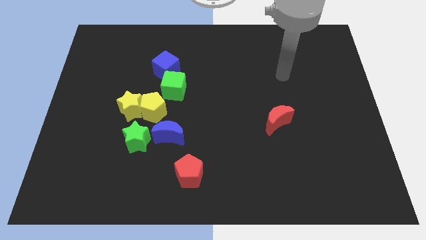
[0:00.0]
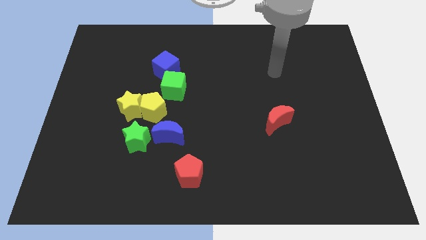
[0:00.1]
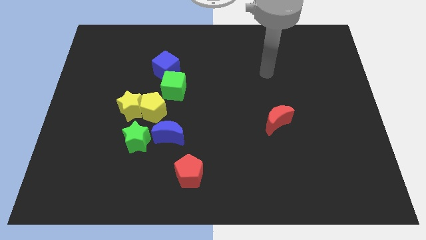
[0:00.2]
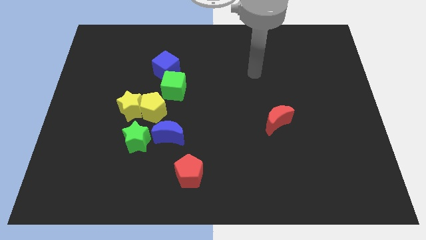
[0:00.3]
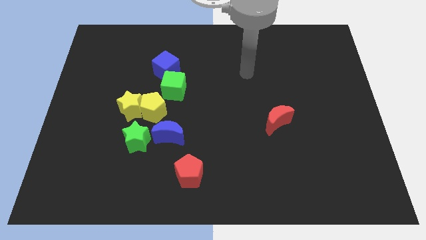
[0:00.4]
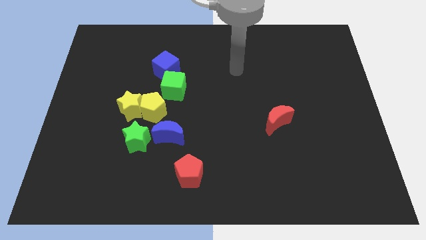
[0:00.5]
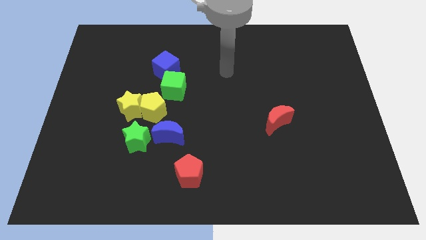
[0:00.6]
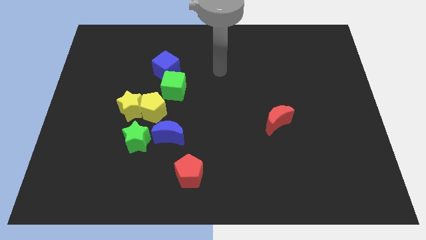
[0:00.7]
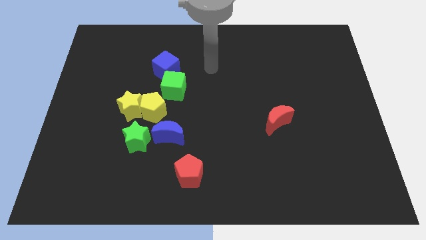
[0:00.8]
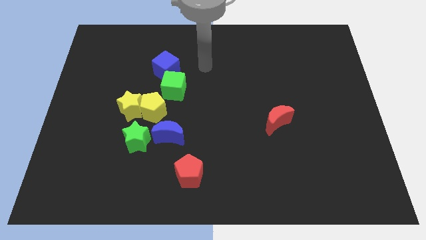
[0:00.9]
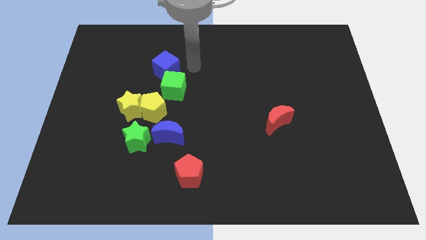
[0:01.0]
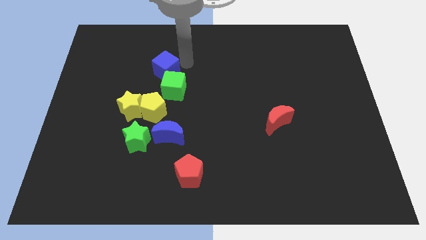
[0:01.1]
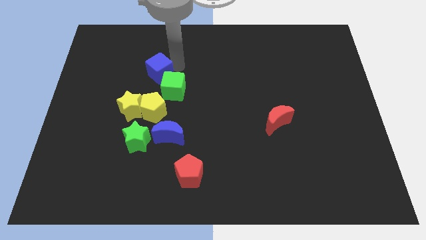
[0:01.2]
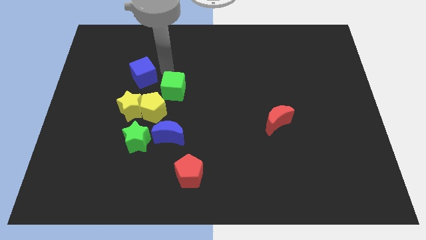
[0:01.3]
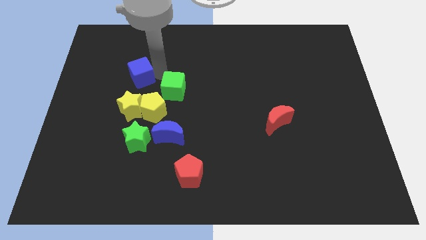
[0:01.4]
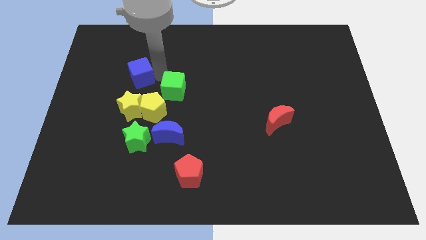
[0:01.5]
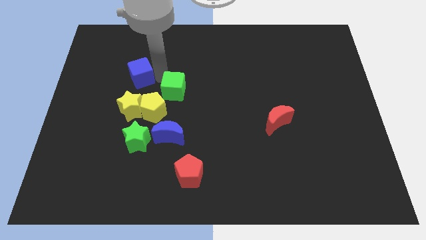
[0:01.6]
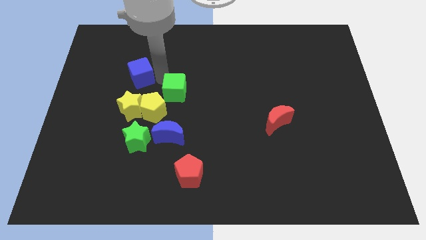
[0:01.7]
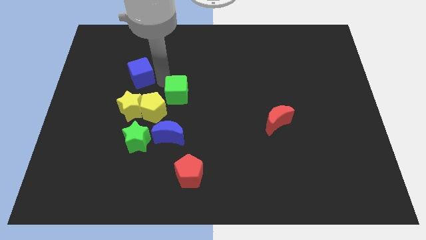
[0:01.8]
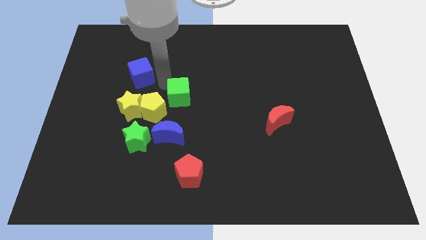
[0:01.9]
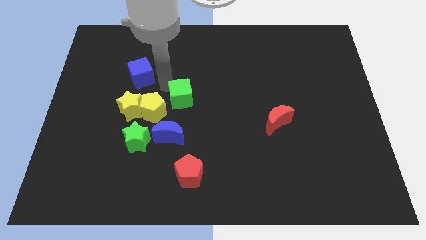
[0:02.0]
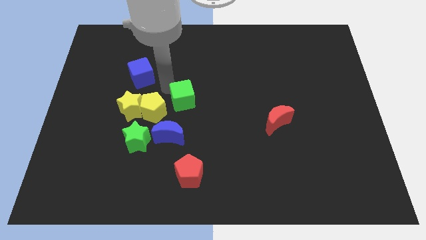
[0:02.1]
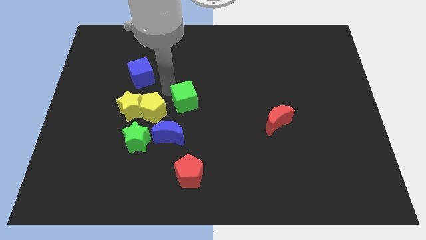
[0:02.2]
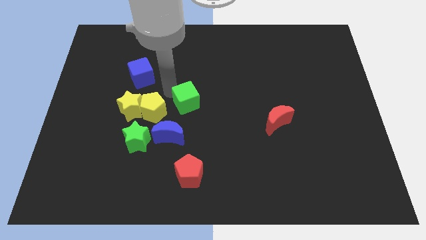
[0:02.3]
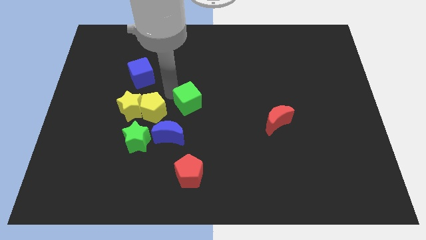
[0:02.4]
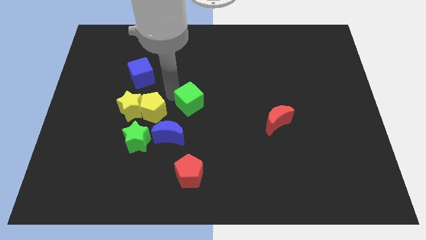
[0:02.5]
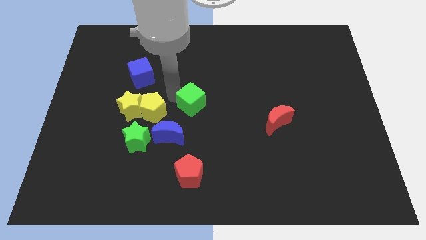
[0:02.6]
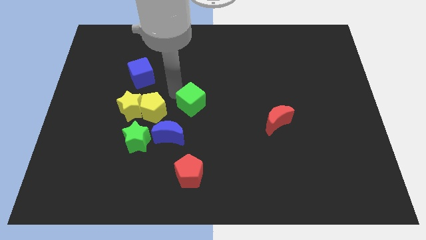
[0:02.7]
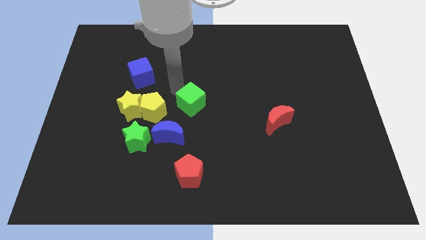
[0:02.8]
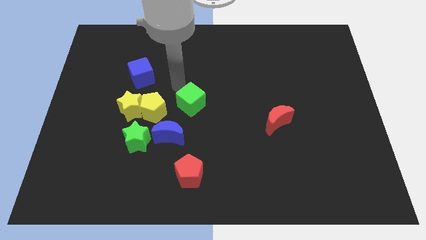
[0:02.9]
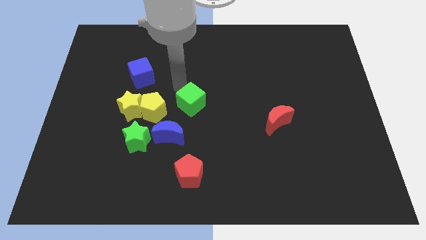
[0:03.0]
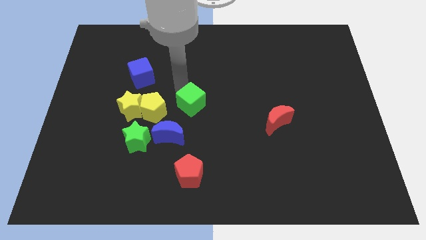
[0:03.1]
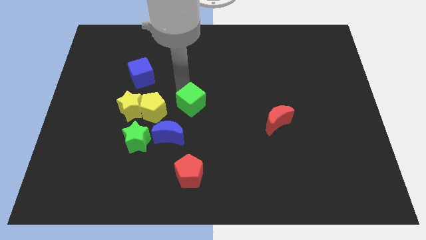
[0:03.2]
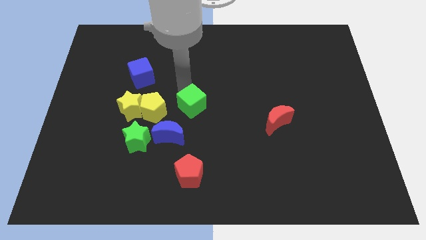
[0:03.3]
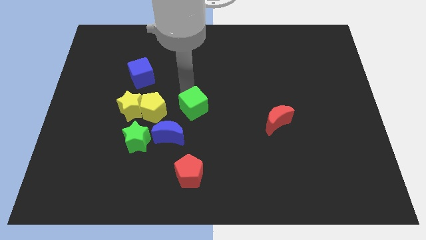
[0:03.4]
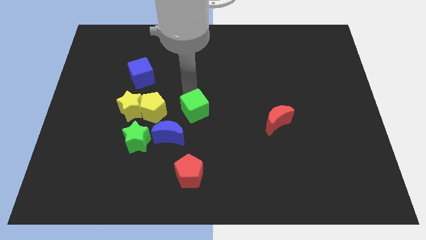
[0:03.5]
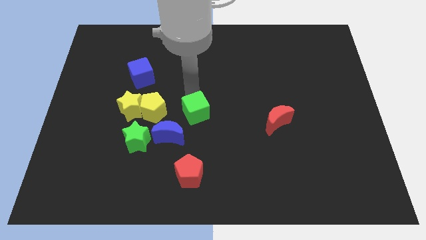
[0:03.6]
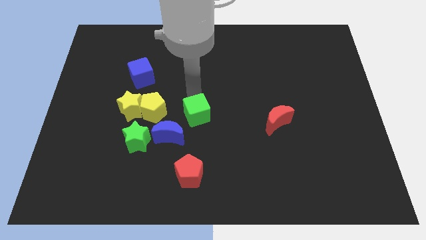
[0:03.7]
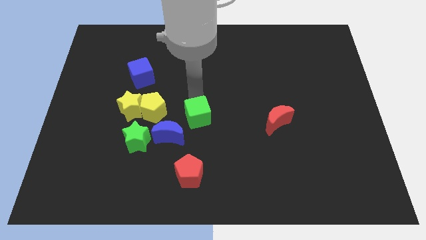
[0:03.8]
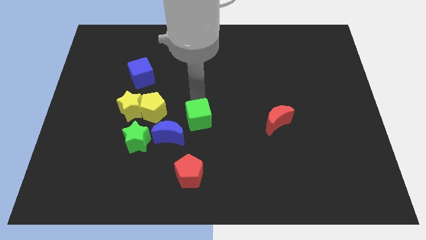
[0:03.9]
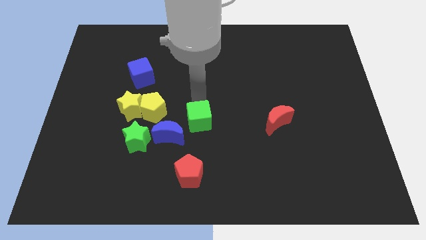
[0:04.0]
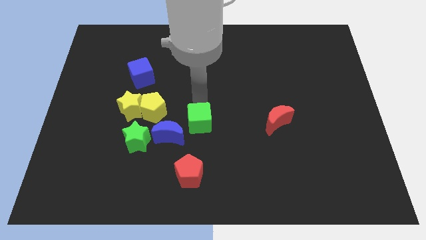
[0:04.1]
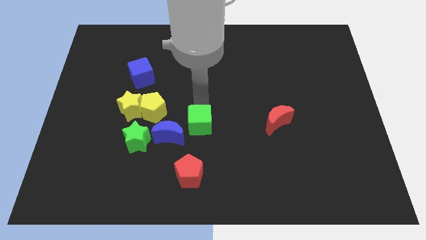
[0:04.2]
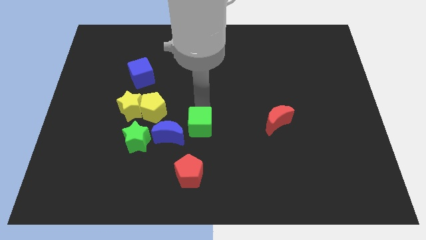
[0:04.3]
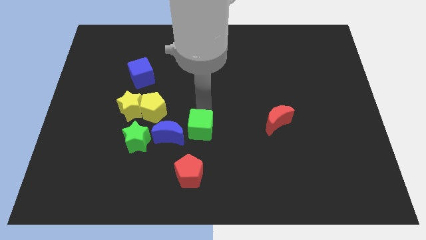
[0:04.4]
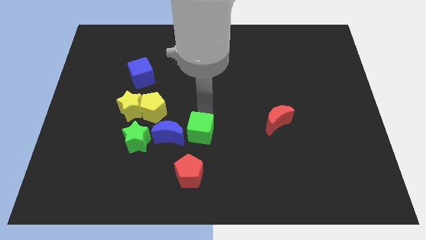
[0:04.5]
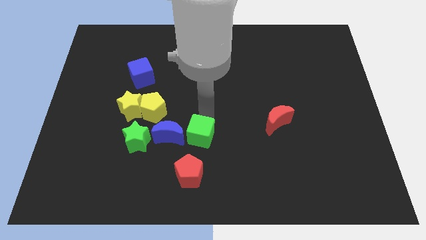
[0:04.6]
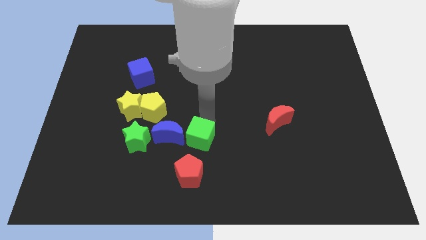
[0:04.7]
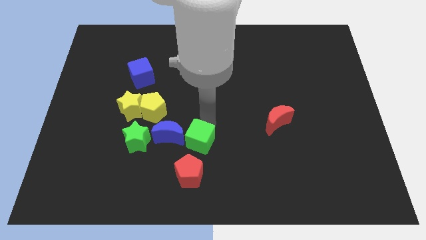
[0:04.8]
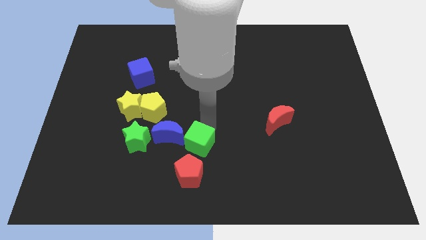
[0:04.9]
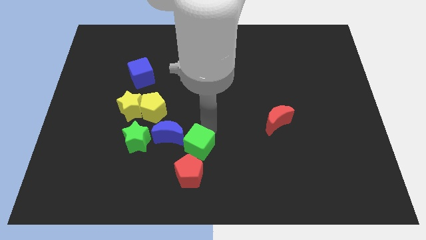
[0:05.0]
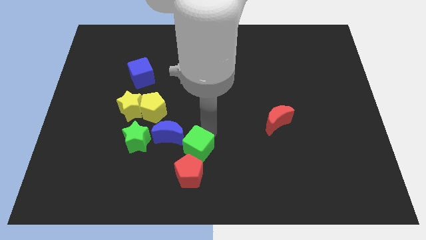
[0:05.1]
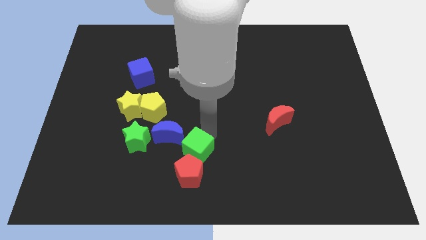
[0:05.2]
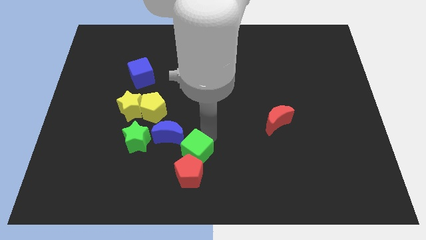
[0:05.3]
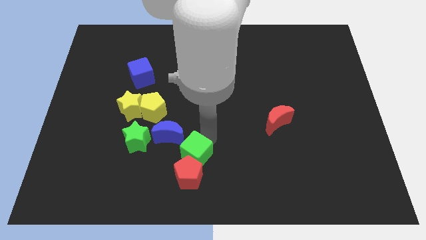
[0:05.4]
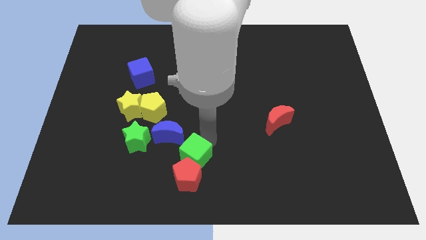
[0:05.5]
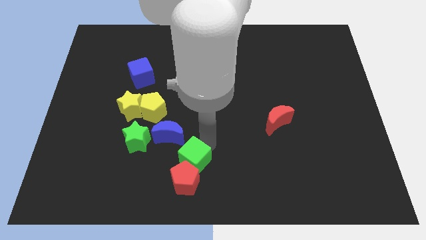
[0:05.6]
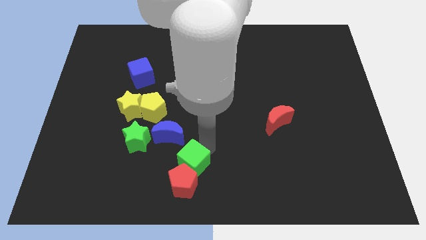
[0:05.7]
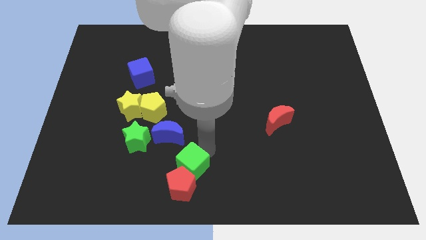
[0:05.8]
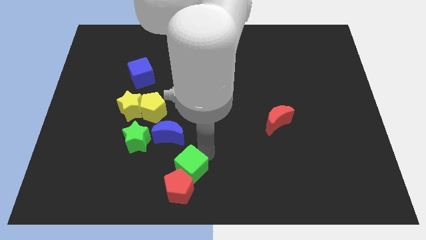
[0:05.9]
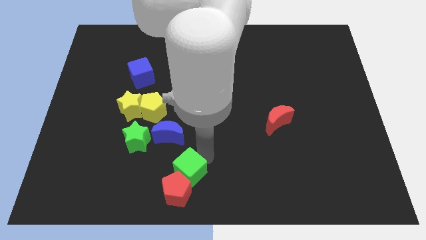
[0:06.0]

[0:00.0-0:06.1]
put the green cube to the bottom of the blue moon

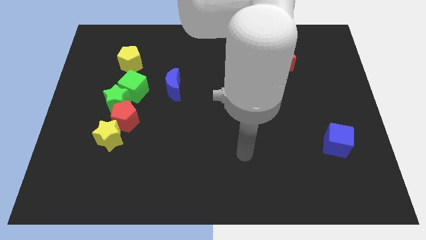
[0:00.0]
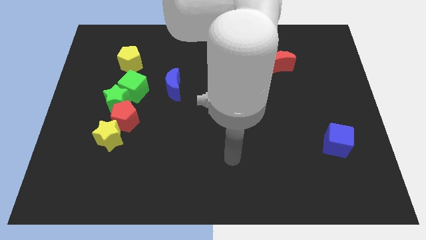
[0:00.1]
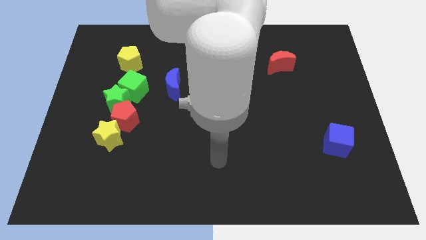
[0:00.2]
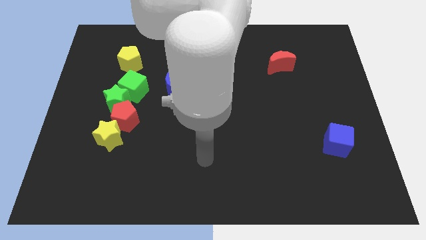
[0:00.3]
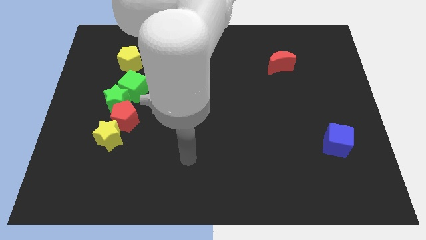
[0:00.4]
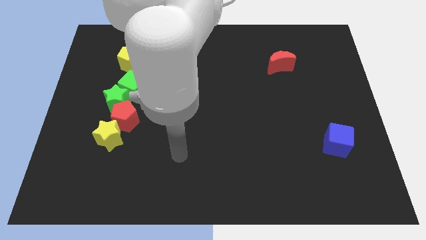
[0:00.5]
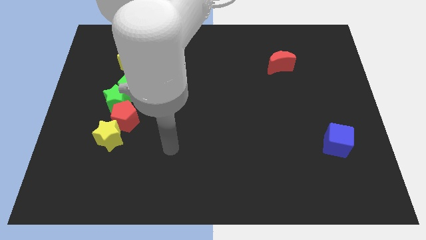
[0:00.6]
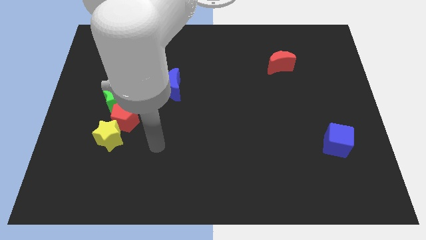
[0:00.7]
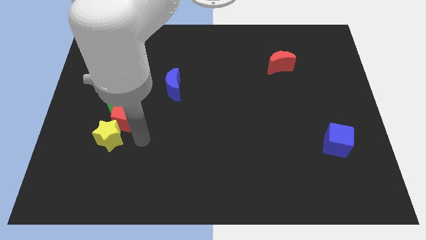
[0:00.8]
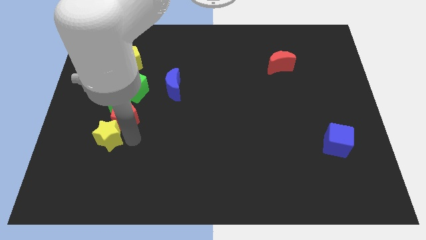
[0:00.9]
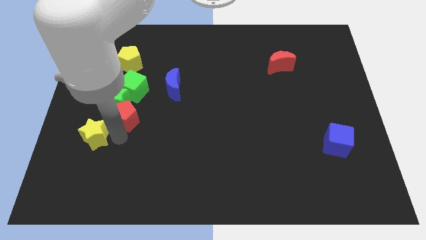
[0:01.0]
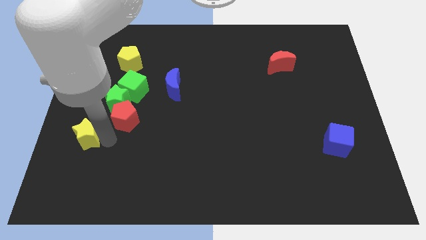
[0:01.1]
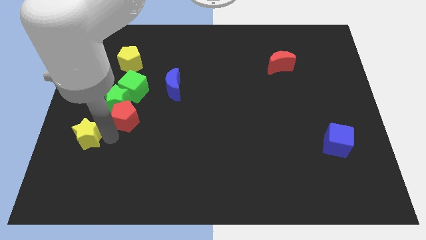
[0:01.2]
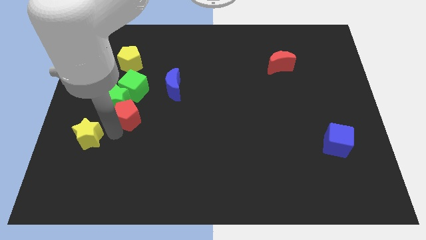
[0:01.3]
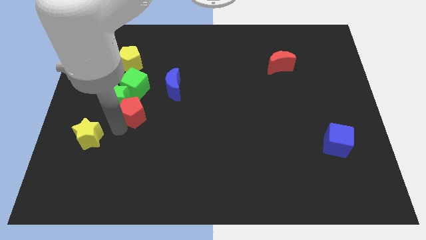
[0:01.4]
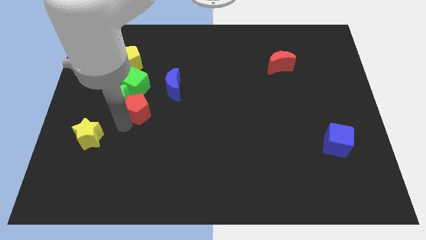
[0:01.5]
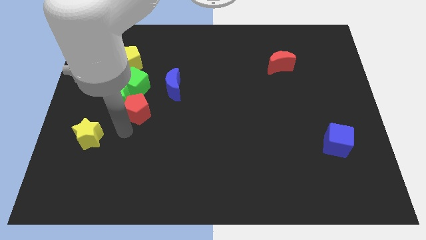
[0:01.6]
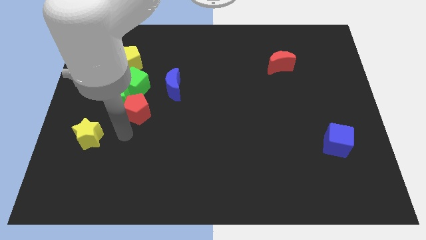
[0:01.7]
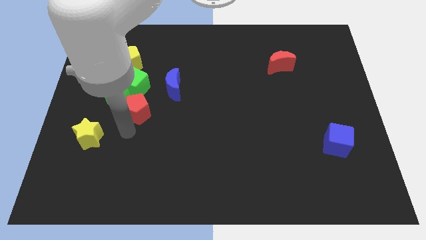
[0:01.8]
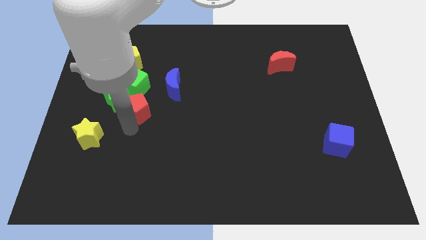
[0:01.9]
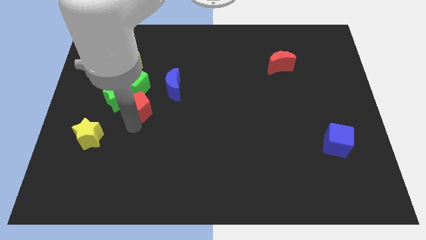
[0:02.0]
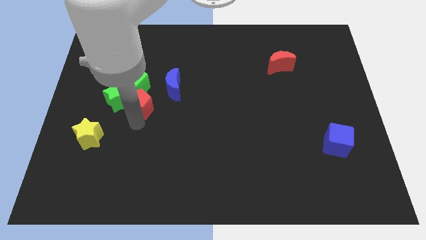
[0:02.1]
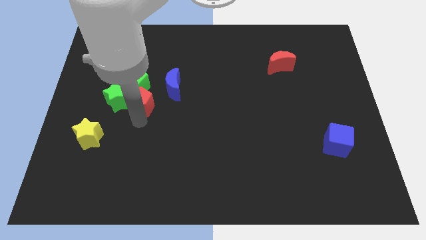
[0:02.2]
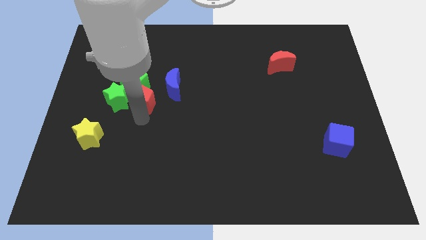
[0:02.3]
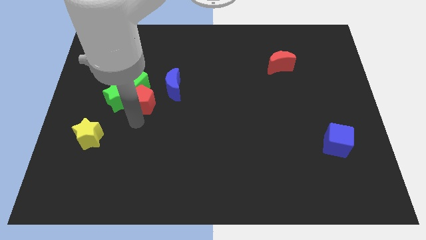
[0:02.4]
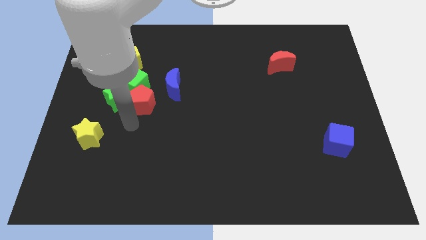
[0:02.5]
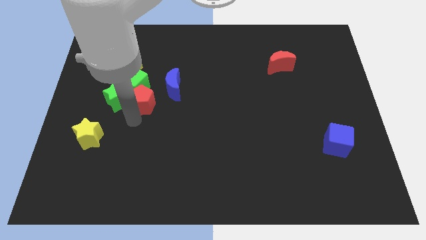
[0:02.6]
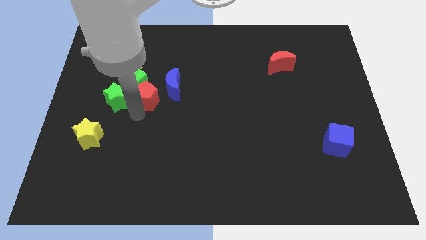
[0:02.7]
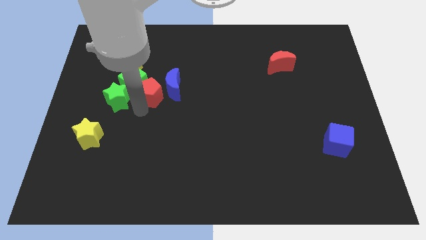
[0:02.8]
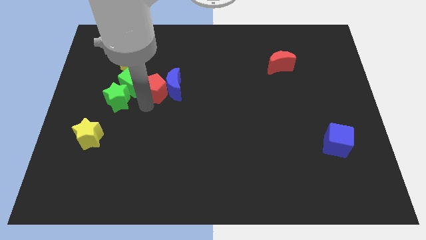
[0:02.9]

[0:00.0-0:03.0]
put the red pentagon to the bottom right of the yellow pentagon
